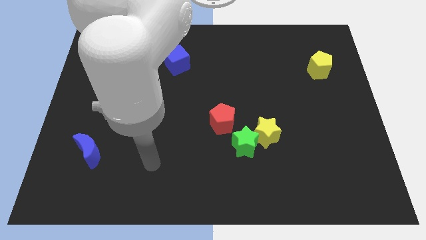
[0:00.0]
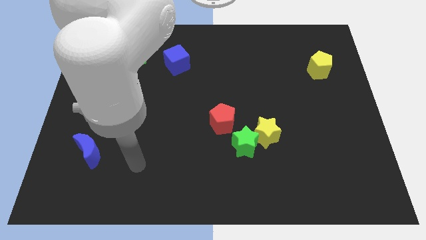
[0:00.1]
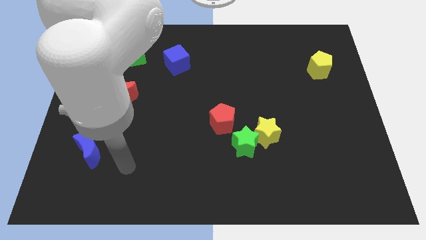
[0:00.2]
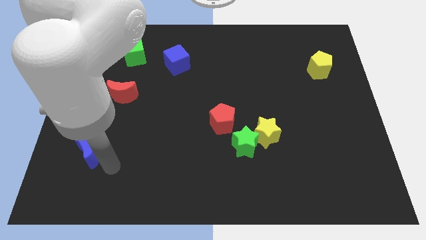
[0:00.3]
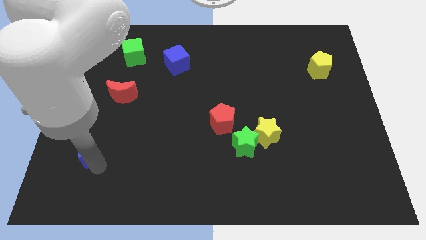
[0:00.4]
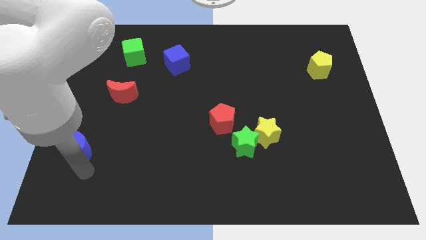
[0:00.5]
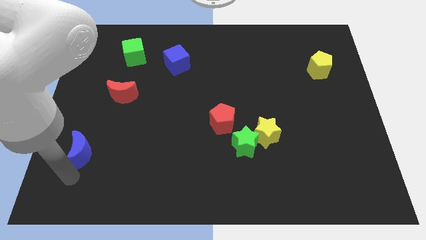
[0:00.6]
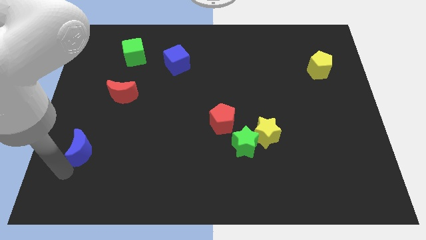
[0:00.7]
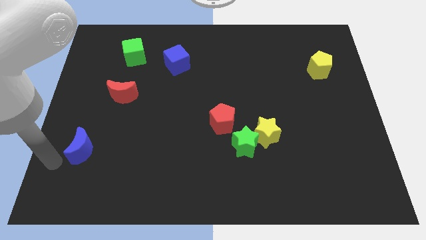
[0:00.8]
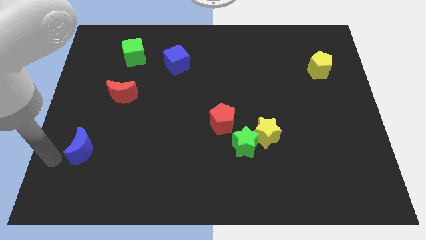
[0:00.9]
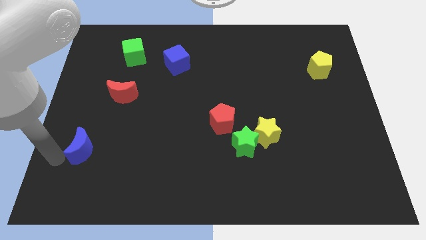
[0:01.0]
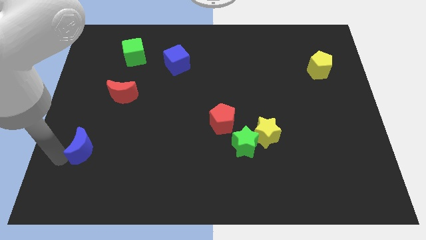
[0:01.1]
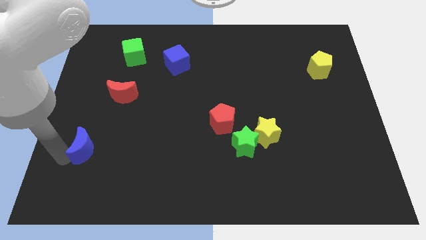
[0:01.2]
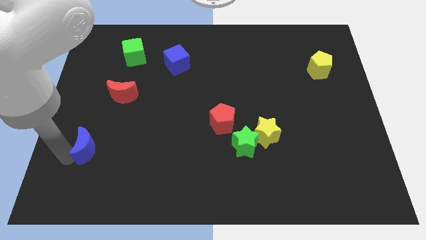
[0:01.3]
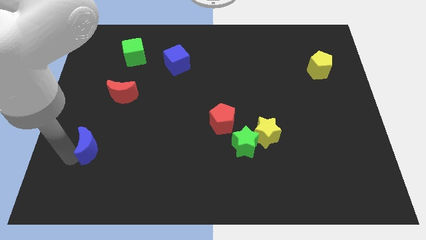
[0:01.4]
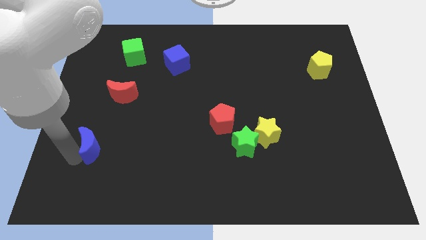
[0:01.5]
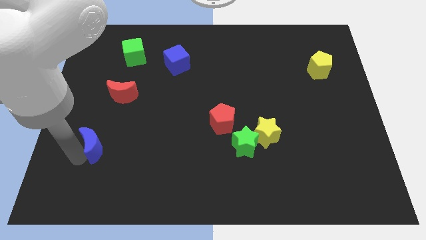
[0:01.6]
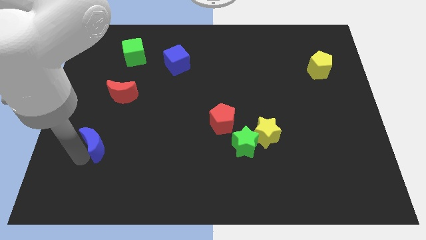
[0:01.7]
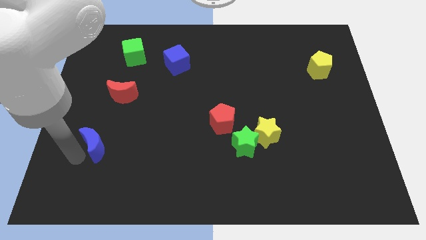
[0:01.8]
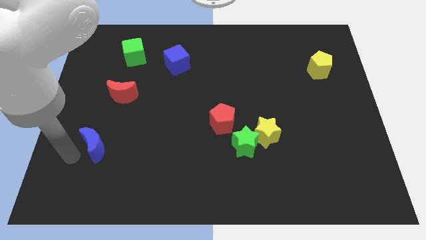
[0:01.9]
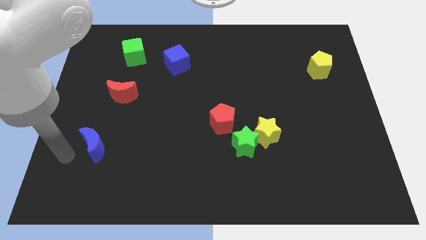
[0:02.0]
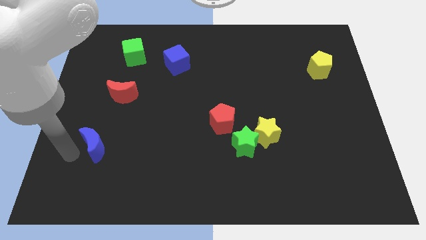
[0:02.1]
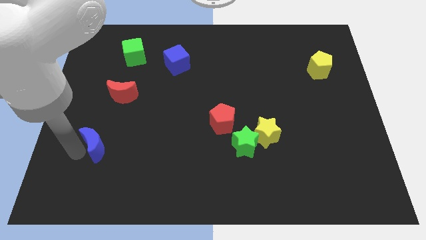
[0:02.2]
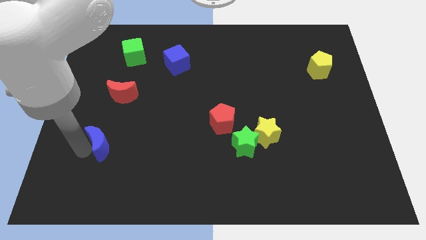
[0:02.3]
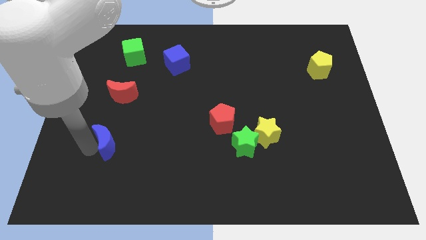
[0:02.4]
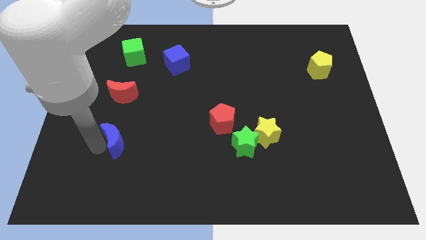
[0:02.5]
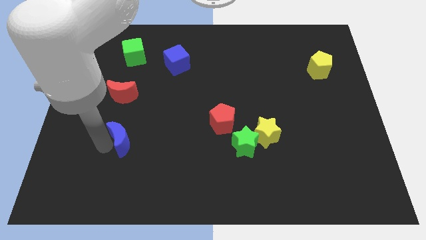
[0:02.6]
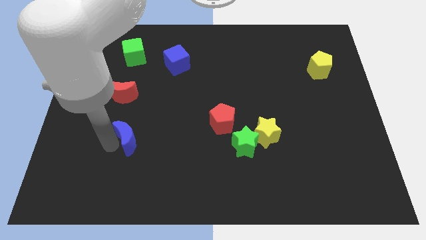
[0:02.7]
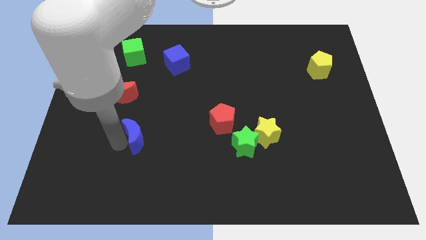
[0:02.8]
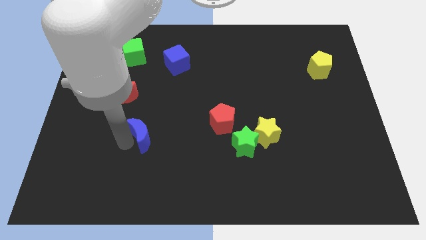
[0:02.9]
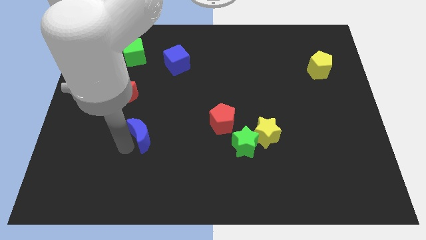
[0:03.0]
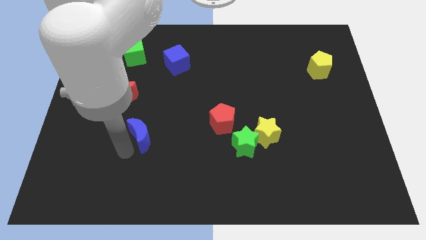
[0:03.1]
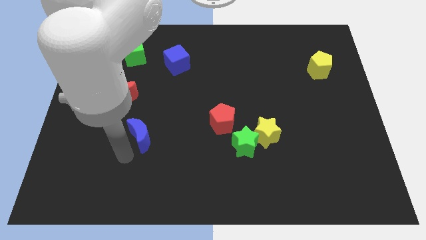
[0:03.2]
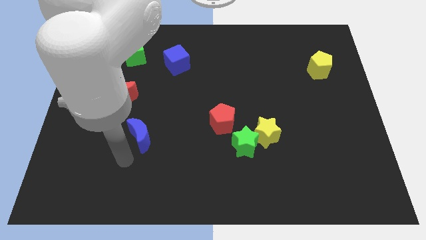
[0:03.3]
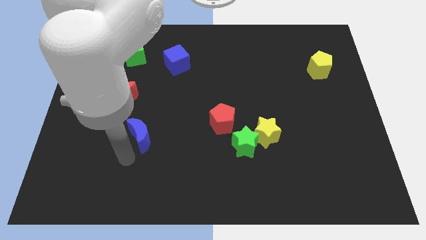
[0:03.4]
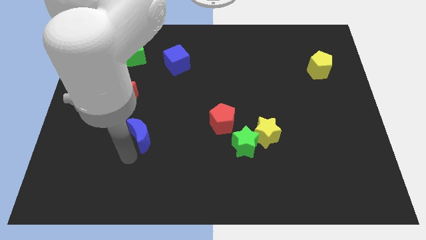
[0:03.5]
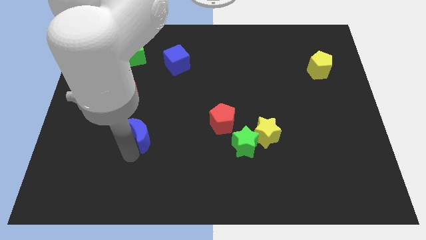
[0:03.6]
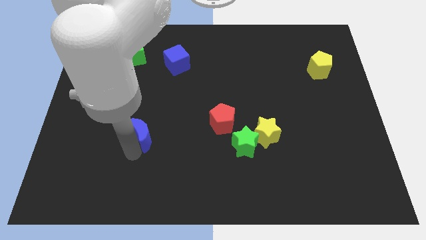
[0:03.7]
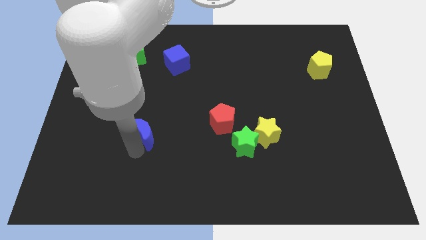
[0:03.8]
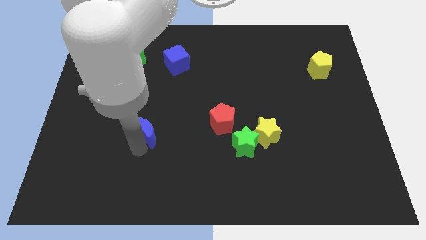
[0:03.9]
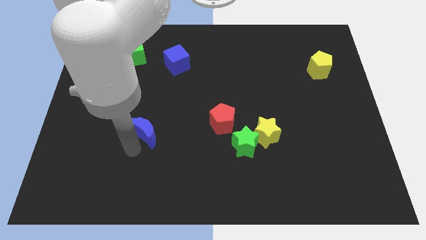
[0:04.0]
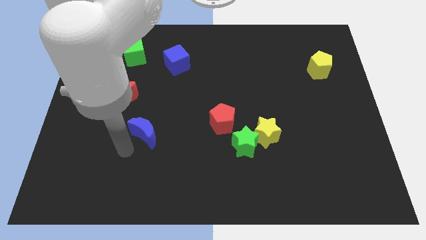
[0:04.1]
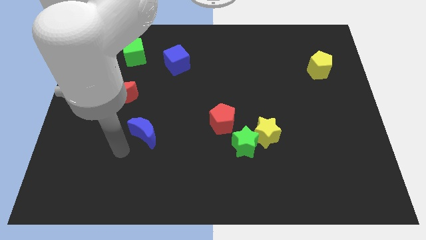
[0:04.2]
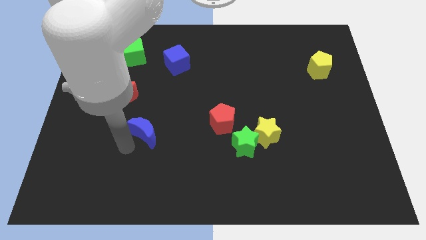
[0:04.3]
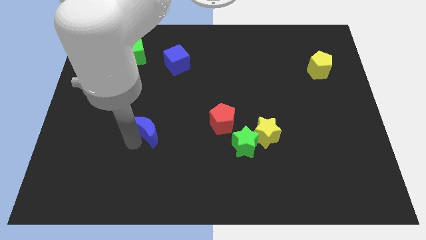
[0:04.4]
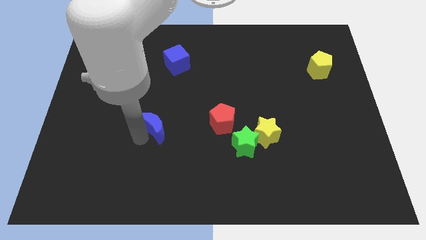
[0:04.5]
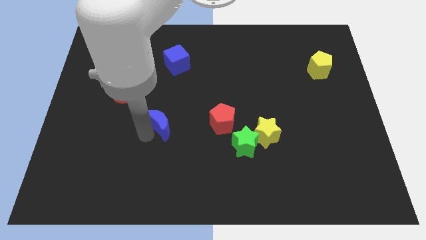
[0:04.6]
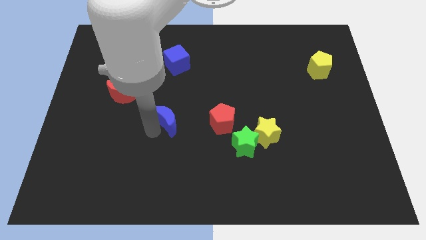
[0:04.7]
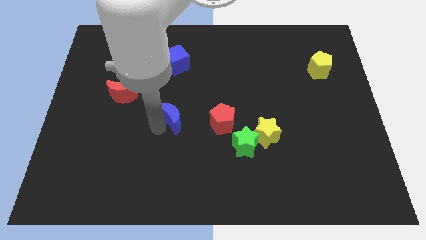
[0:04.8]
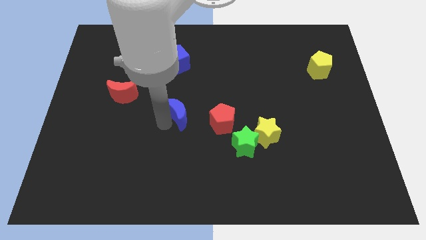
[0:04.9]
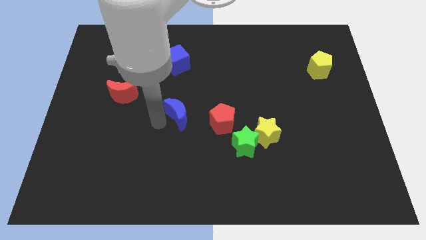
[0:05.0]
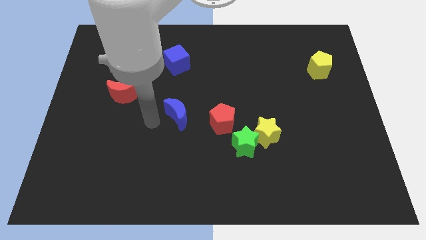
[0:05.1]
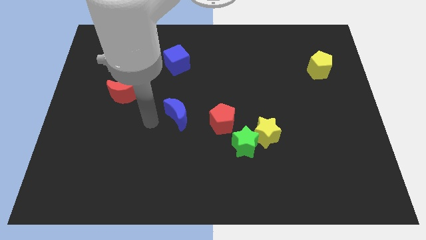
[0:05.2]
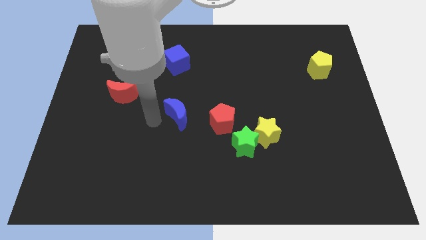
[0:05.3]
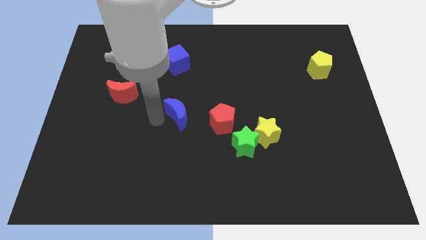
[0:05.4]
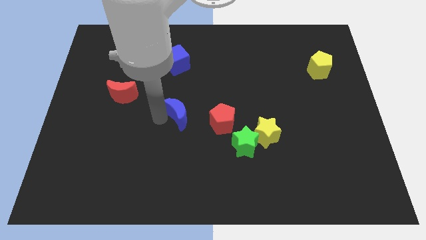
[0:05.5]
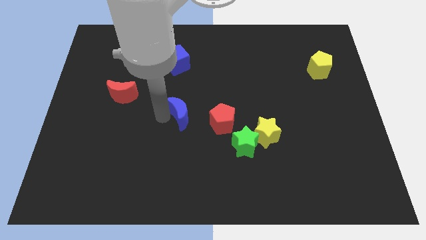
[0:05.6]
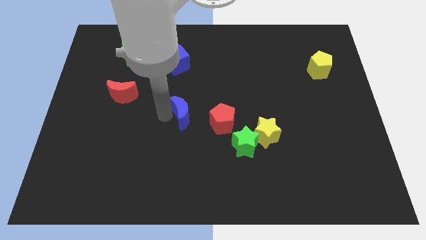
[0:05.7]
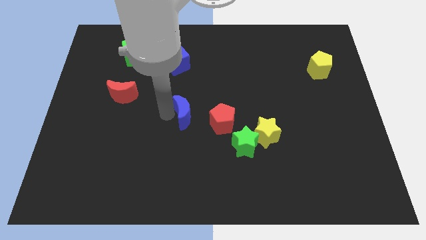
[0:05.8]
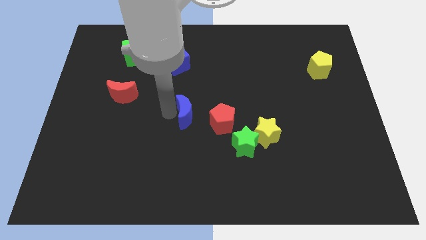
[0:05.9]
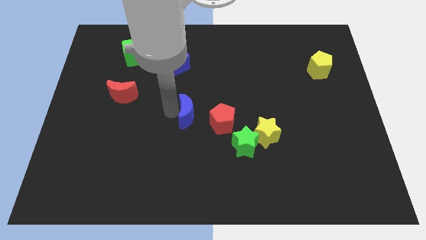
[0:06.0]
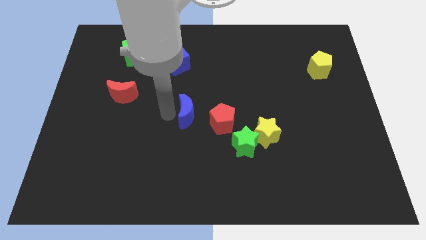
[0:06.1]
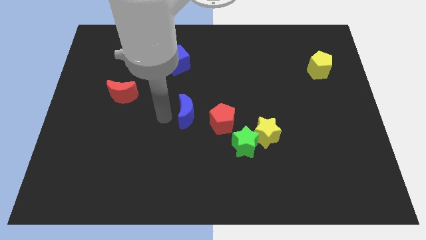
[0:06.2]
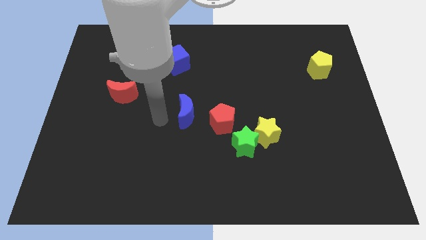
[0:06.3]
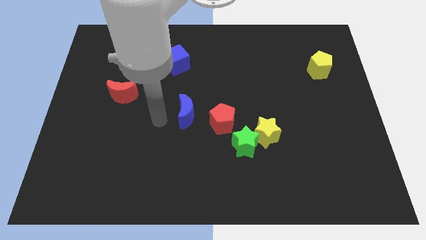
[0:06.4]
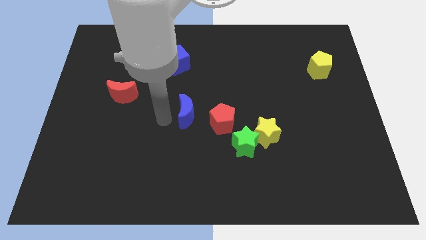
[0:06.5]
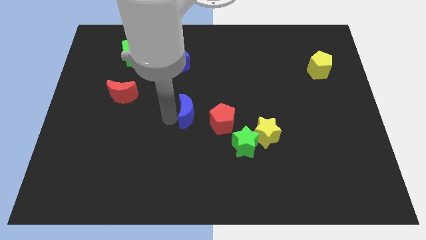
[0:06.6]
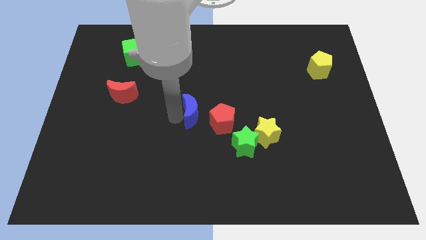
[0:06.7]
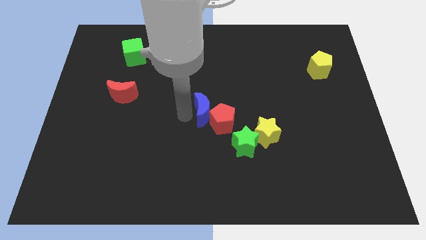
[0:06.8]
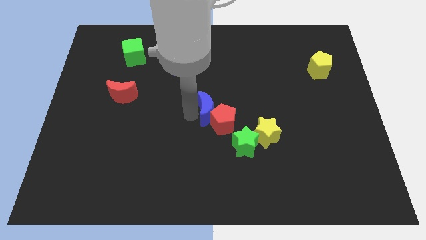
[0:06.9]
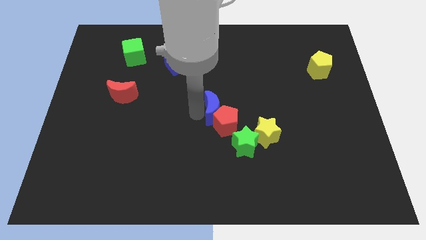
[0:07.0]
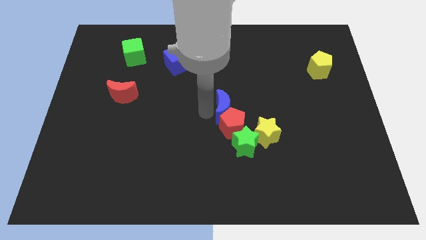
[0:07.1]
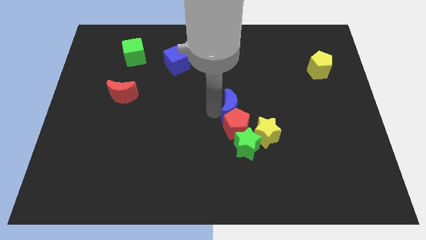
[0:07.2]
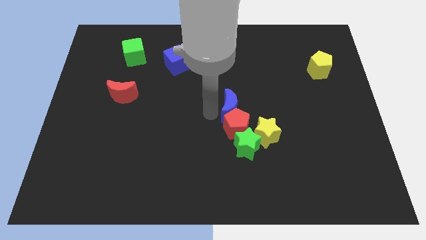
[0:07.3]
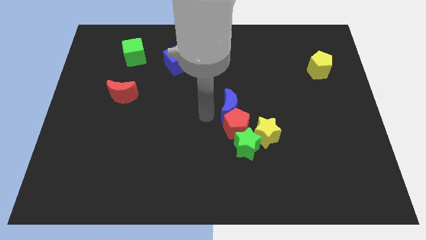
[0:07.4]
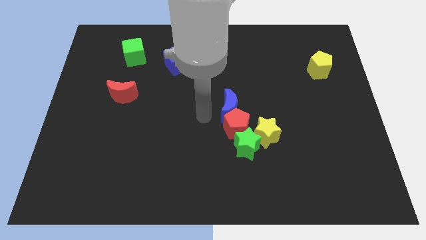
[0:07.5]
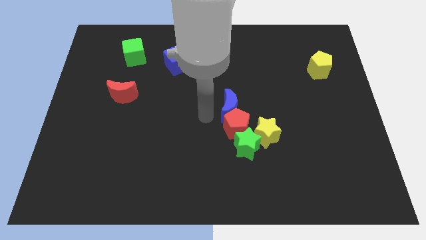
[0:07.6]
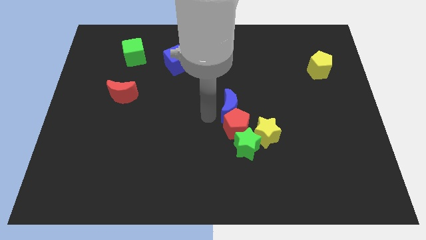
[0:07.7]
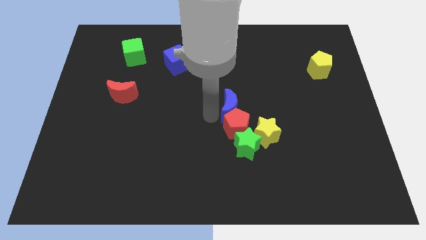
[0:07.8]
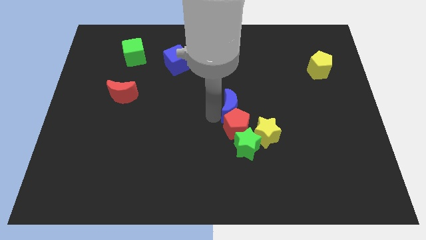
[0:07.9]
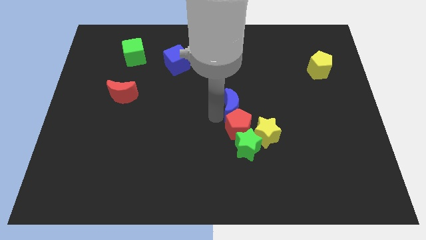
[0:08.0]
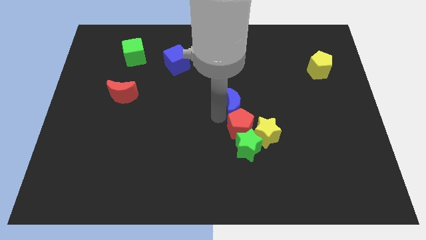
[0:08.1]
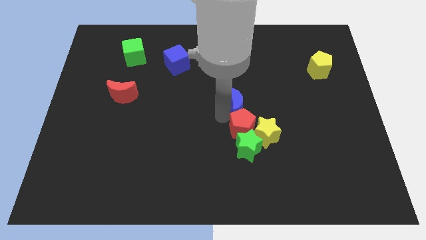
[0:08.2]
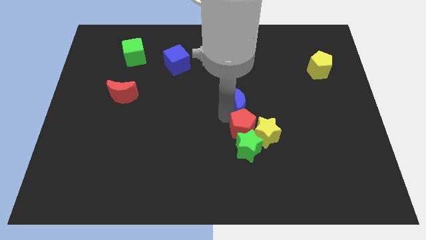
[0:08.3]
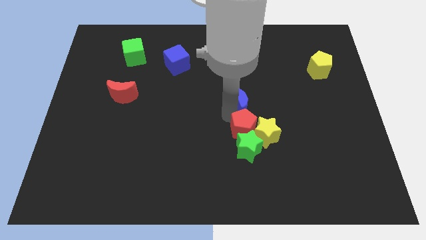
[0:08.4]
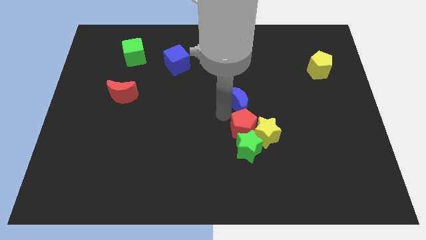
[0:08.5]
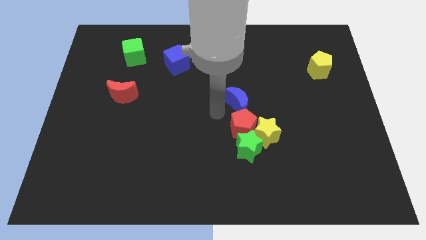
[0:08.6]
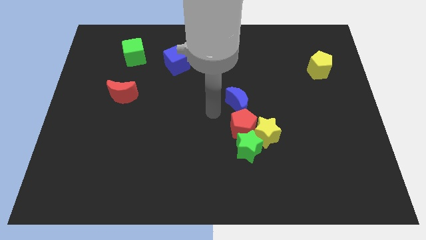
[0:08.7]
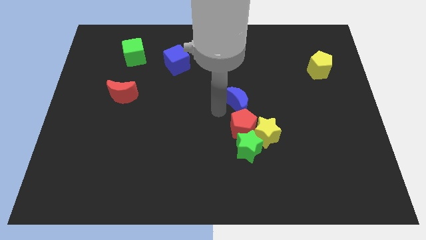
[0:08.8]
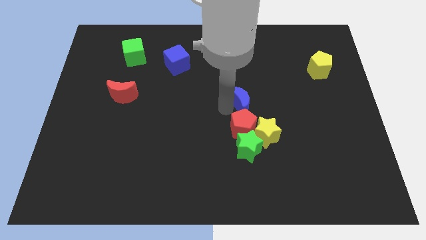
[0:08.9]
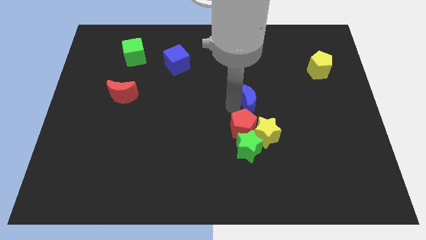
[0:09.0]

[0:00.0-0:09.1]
put the blue moon to the top of the yellow star
